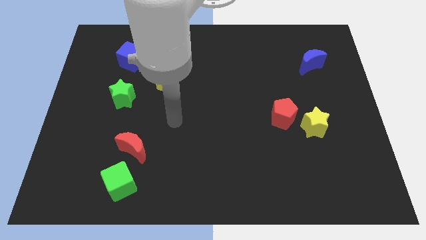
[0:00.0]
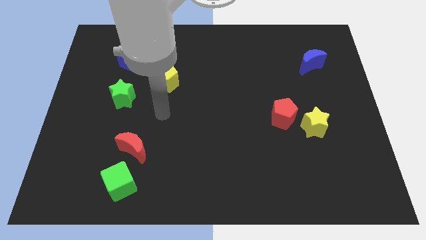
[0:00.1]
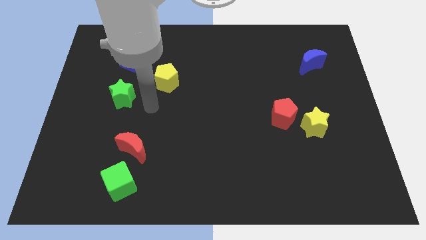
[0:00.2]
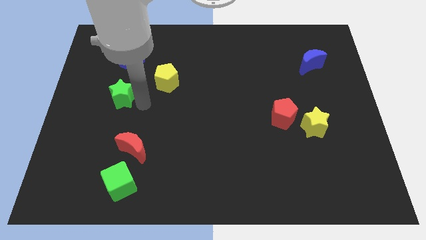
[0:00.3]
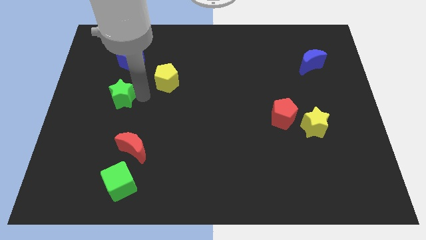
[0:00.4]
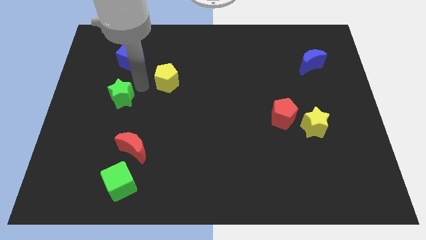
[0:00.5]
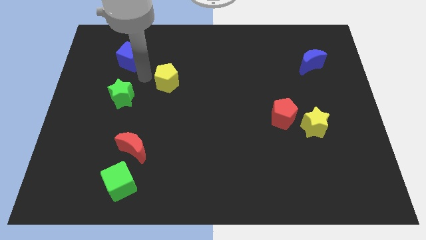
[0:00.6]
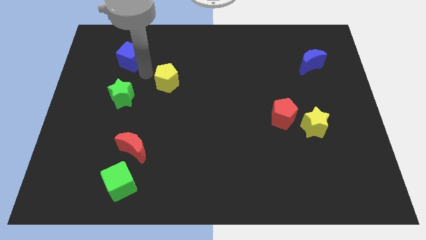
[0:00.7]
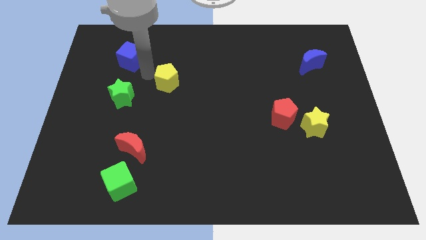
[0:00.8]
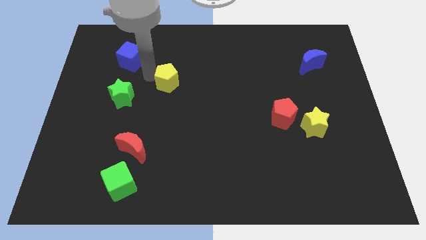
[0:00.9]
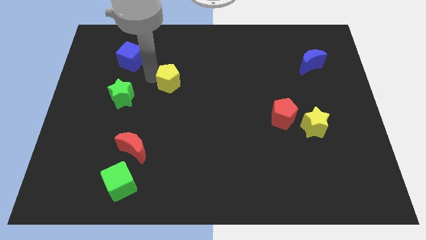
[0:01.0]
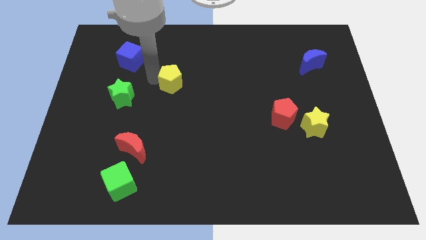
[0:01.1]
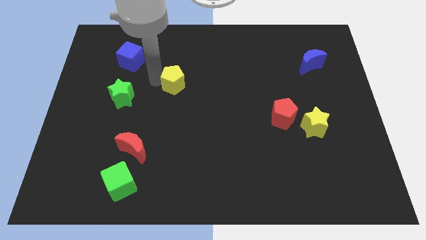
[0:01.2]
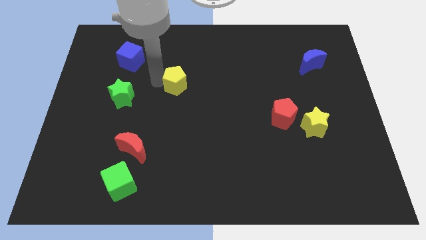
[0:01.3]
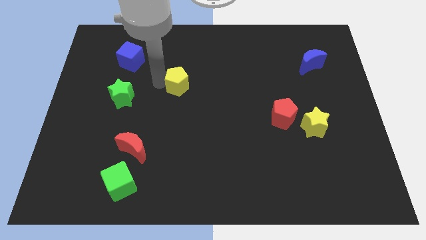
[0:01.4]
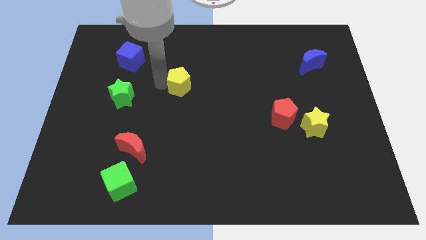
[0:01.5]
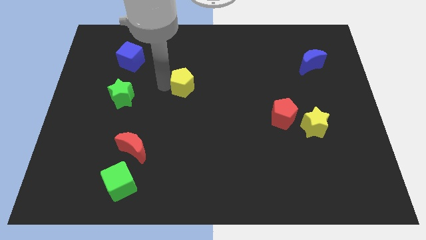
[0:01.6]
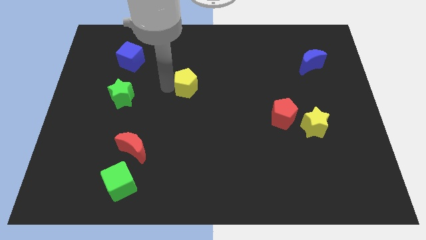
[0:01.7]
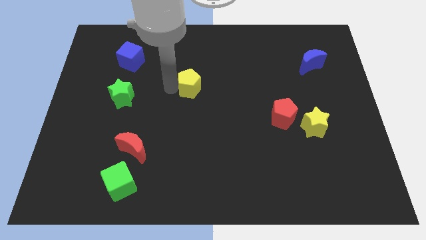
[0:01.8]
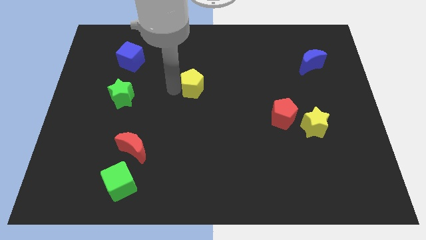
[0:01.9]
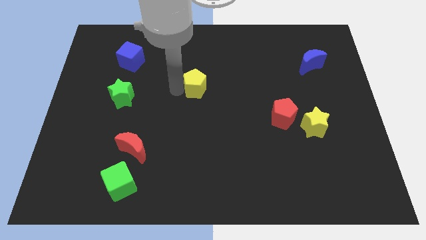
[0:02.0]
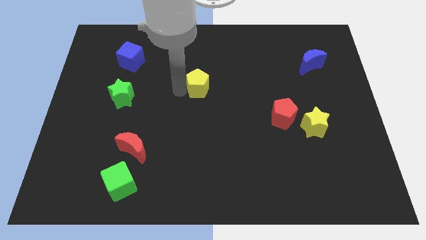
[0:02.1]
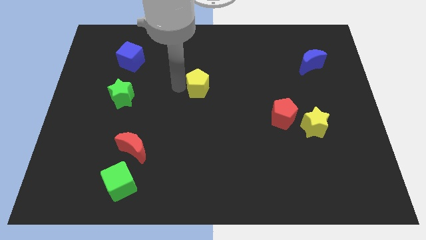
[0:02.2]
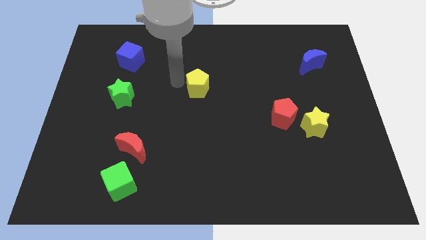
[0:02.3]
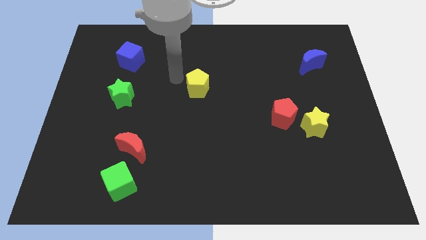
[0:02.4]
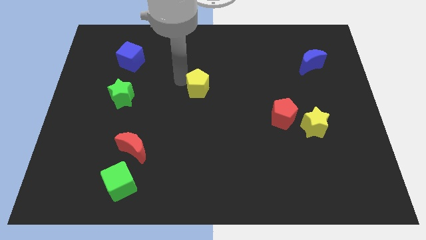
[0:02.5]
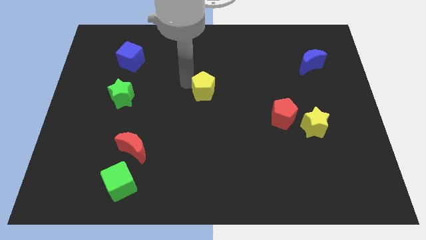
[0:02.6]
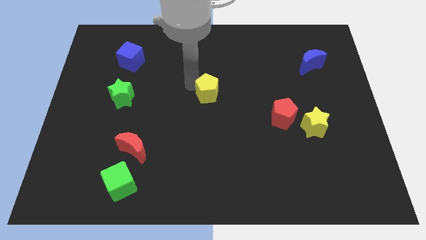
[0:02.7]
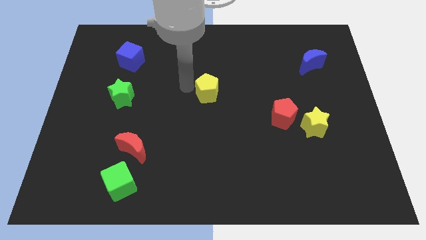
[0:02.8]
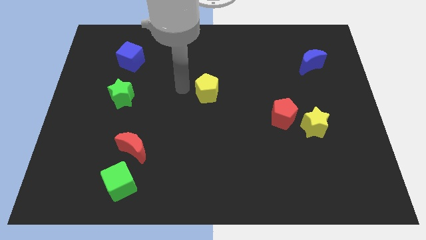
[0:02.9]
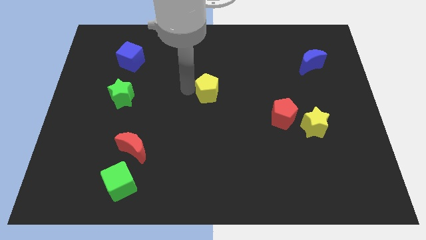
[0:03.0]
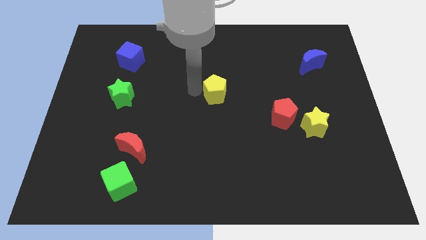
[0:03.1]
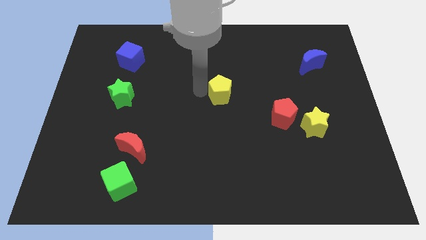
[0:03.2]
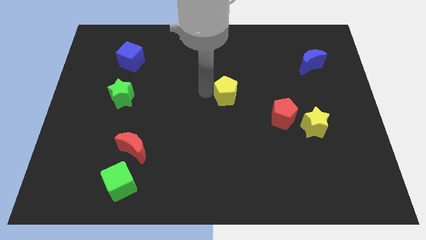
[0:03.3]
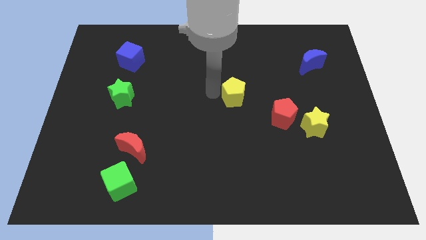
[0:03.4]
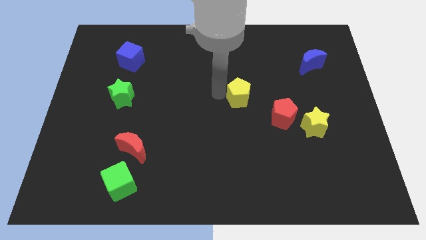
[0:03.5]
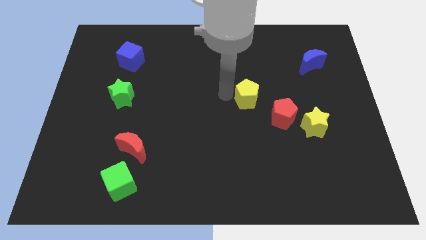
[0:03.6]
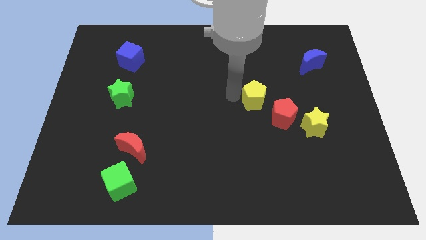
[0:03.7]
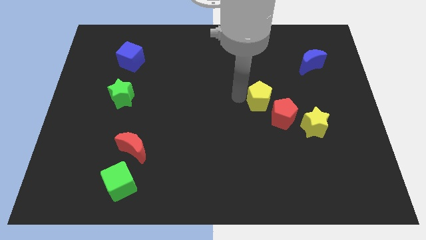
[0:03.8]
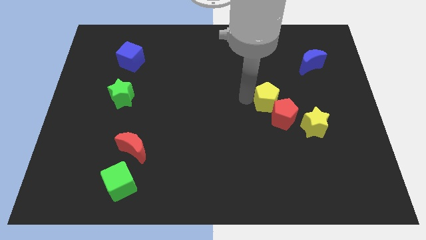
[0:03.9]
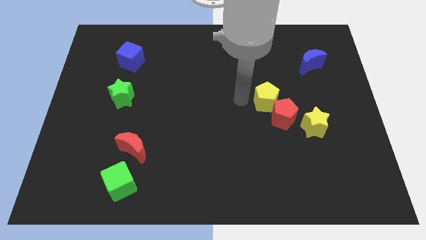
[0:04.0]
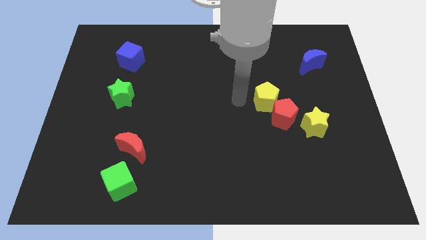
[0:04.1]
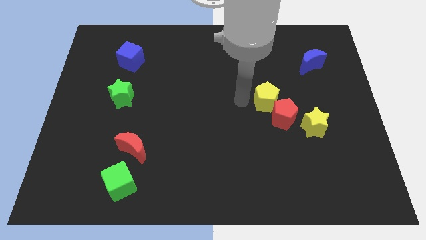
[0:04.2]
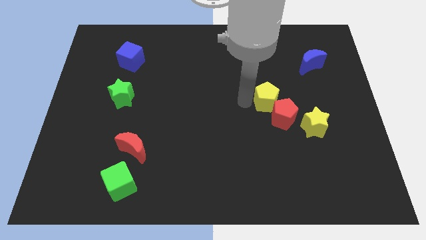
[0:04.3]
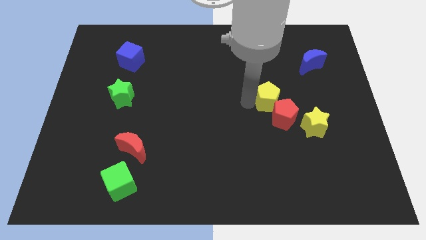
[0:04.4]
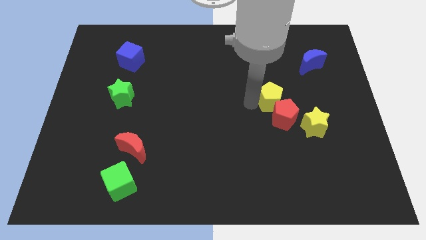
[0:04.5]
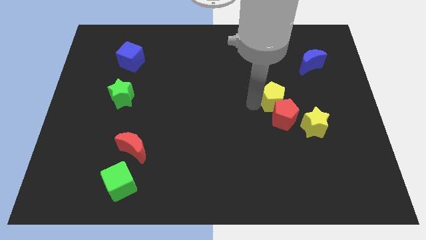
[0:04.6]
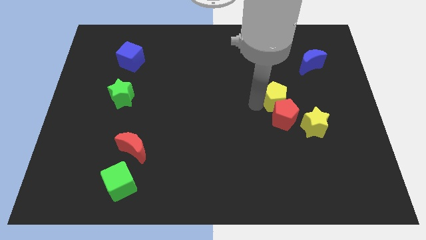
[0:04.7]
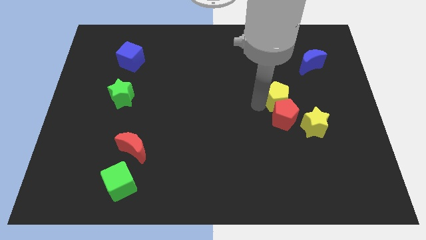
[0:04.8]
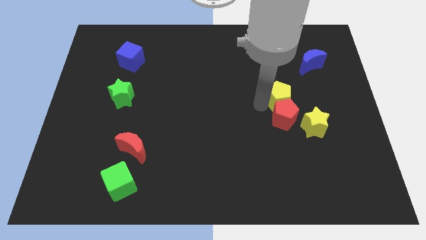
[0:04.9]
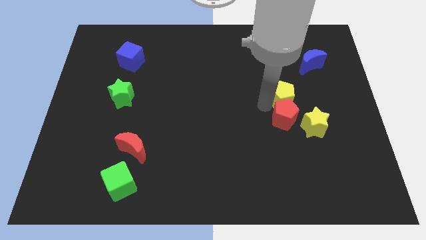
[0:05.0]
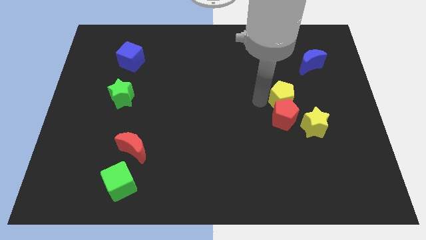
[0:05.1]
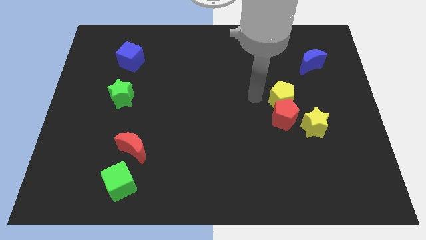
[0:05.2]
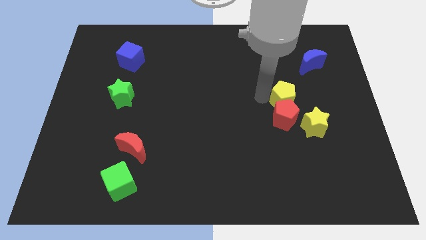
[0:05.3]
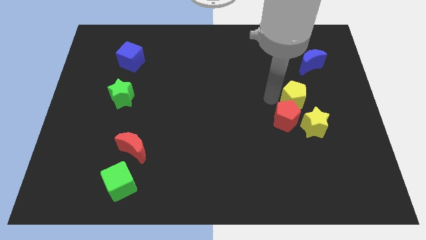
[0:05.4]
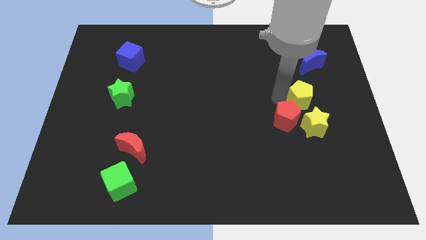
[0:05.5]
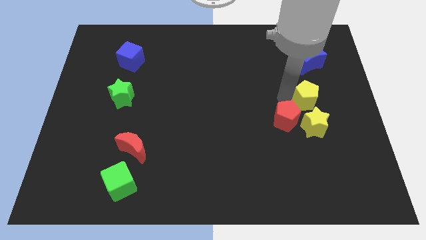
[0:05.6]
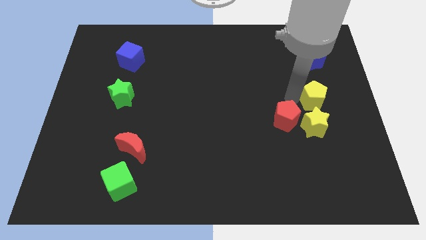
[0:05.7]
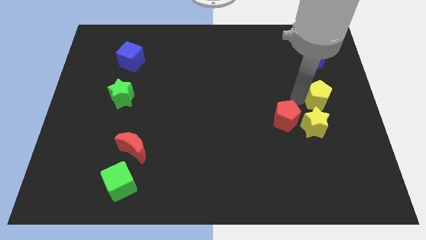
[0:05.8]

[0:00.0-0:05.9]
slide the yellow pentagon to the center right
